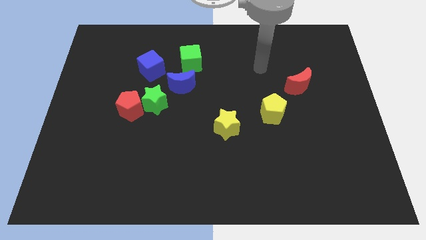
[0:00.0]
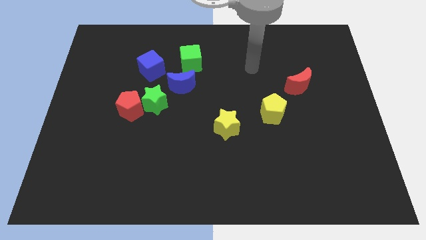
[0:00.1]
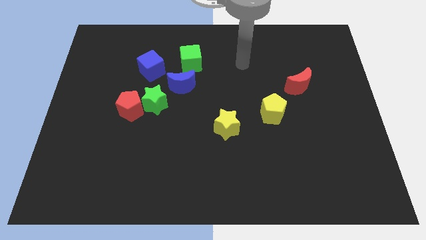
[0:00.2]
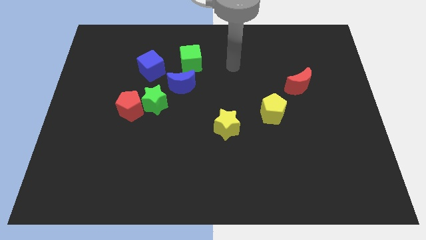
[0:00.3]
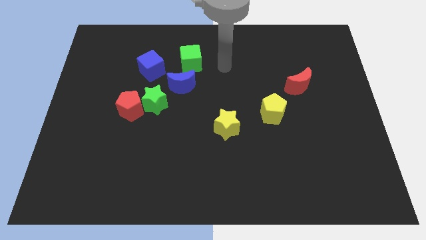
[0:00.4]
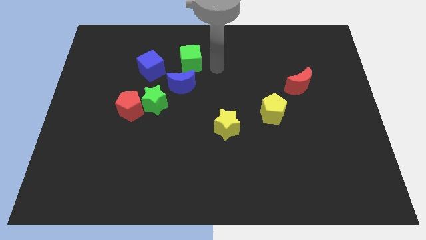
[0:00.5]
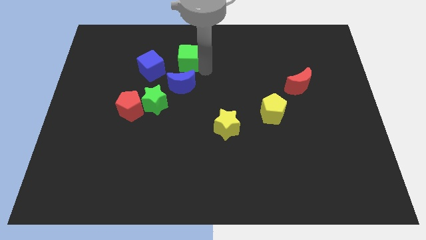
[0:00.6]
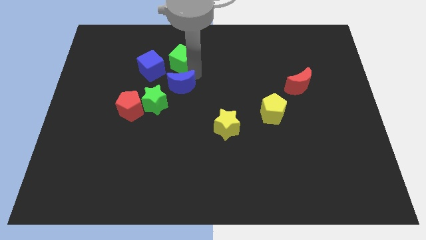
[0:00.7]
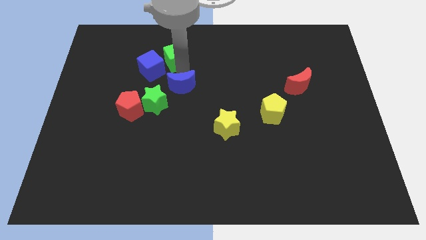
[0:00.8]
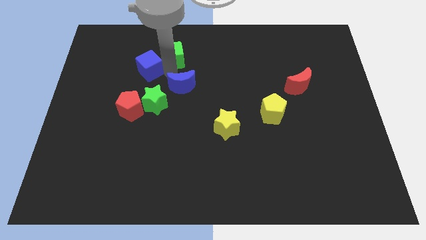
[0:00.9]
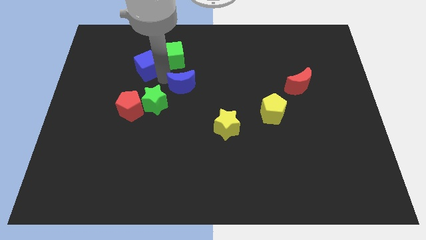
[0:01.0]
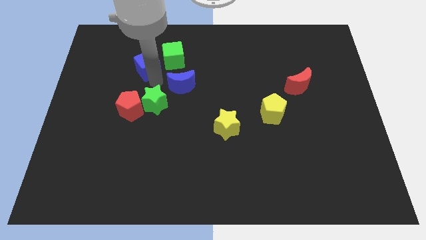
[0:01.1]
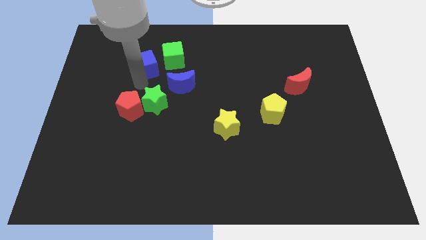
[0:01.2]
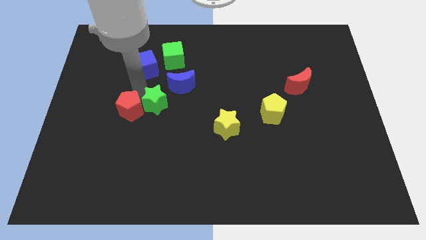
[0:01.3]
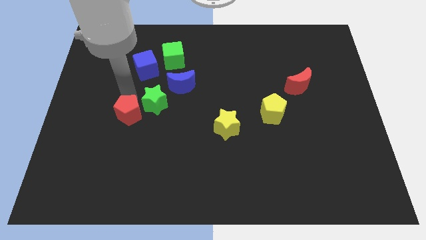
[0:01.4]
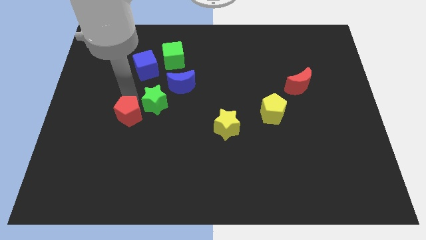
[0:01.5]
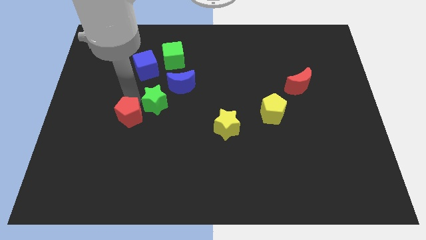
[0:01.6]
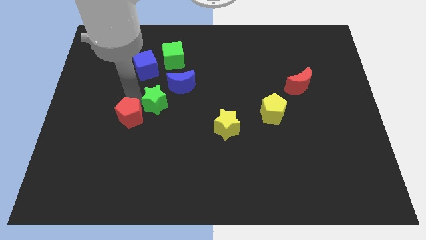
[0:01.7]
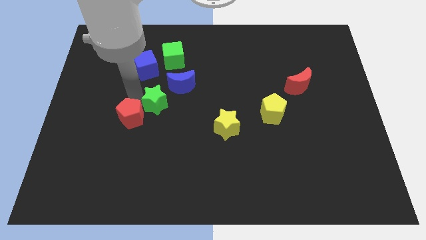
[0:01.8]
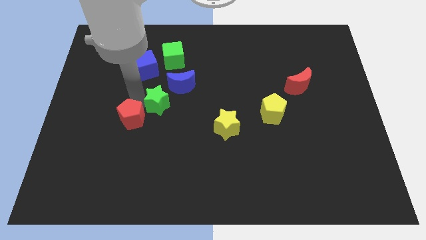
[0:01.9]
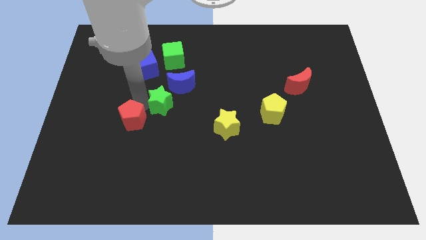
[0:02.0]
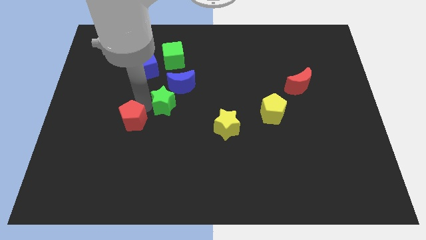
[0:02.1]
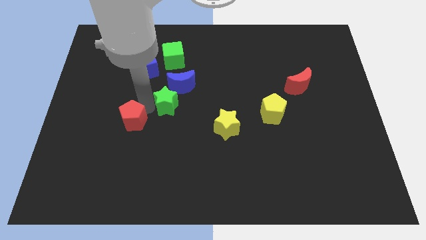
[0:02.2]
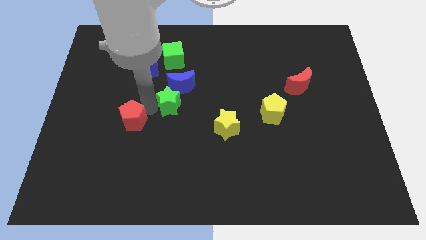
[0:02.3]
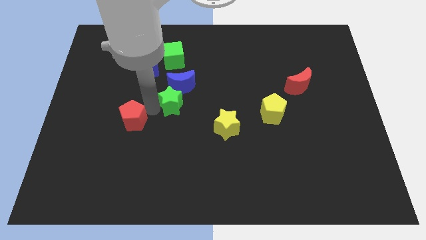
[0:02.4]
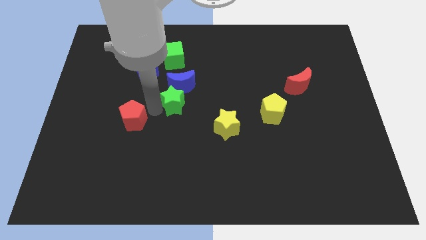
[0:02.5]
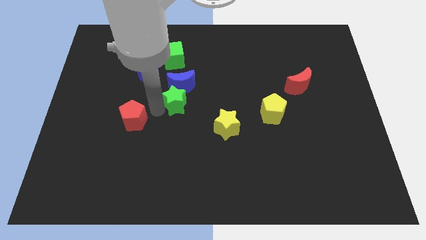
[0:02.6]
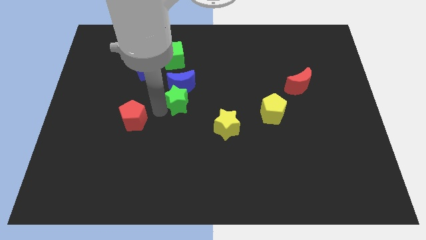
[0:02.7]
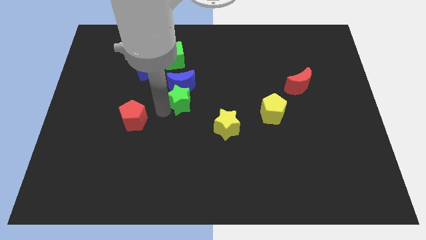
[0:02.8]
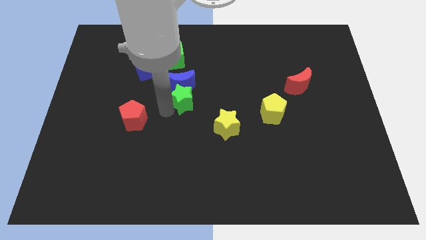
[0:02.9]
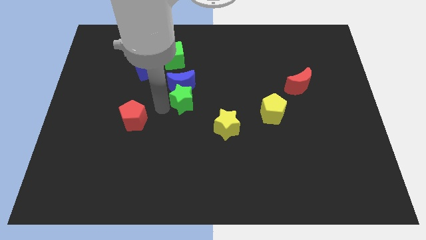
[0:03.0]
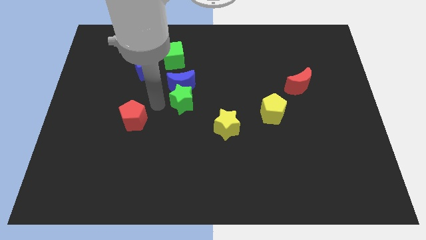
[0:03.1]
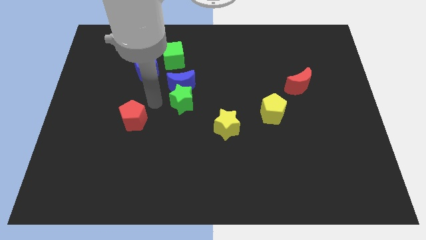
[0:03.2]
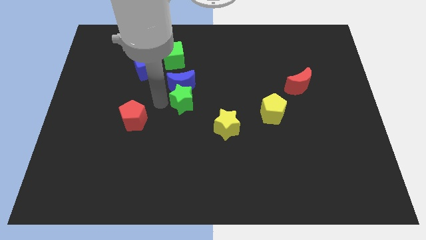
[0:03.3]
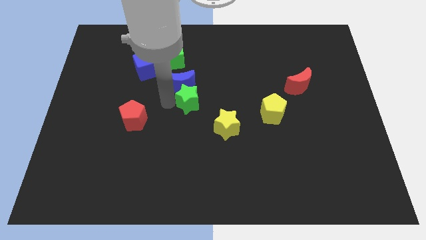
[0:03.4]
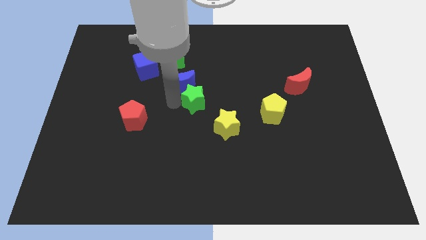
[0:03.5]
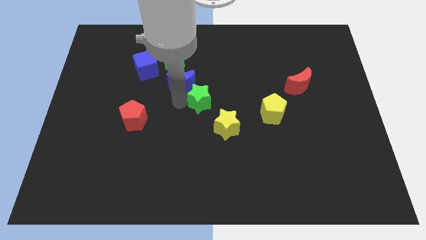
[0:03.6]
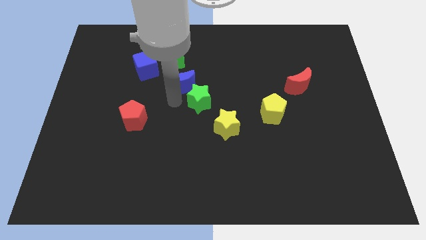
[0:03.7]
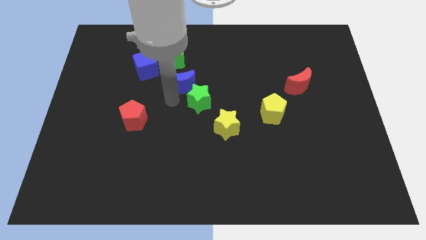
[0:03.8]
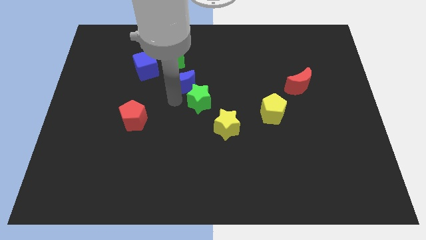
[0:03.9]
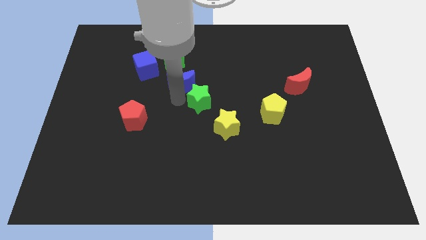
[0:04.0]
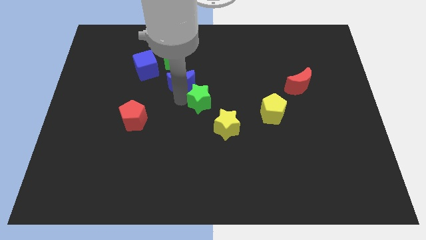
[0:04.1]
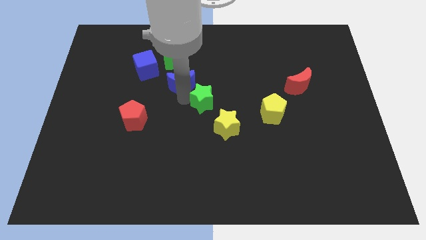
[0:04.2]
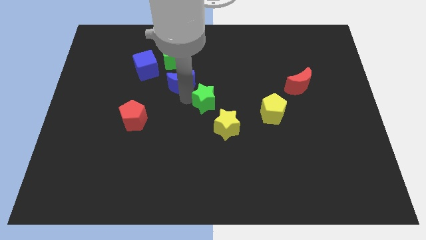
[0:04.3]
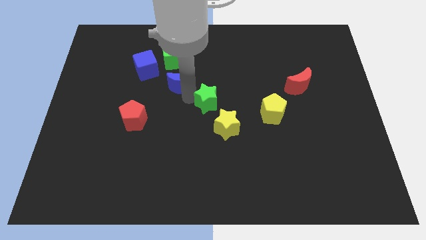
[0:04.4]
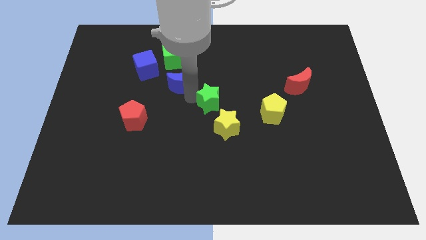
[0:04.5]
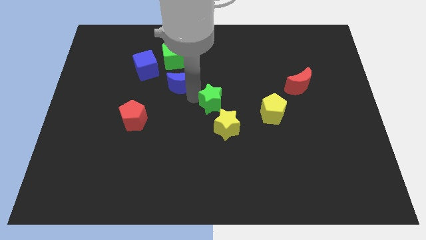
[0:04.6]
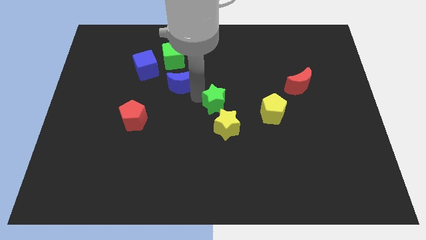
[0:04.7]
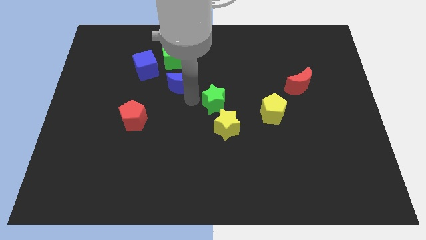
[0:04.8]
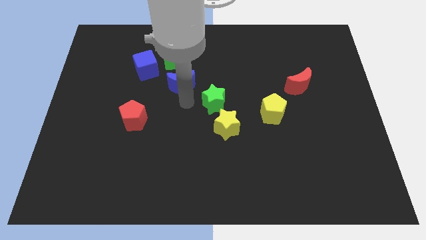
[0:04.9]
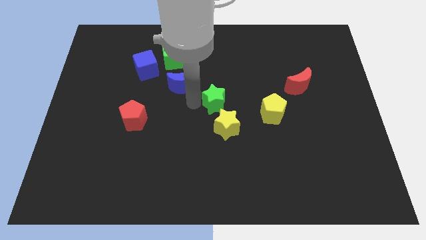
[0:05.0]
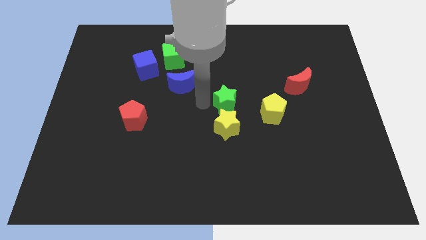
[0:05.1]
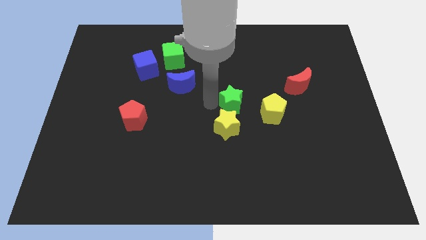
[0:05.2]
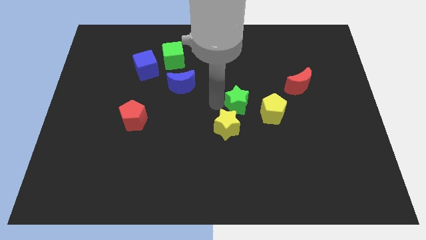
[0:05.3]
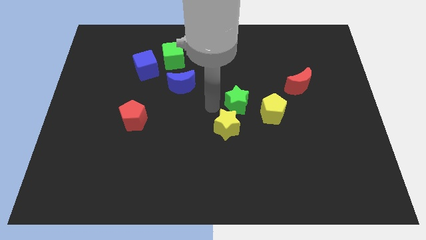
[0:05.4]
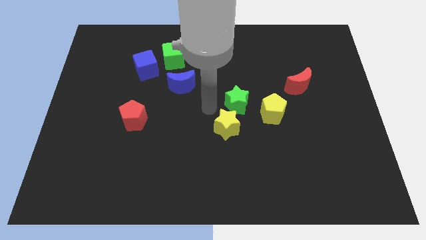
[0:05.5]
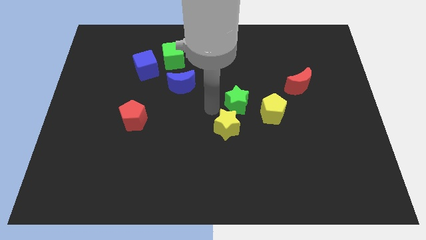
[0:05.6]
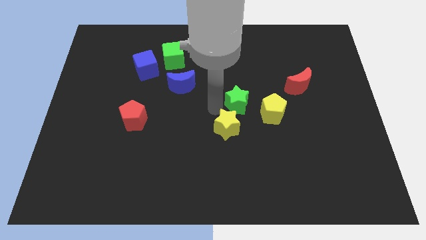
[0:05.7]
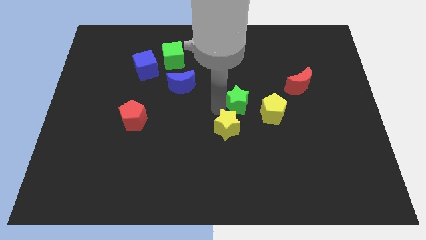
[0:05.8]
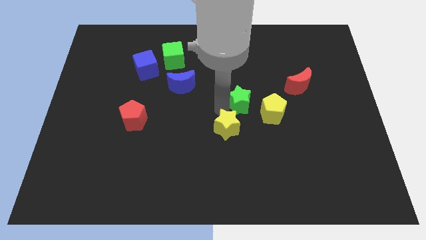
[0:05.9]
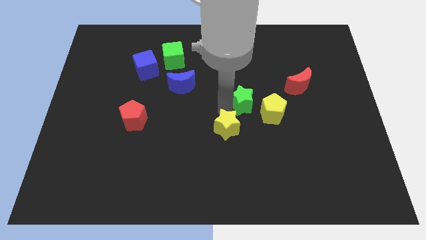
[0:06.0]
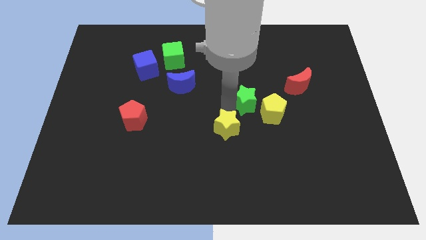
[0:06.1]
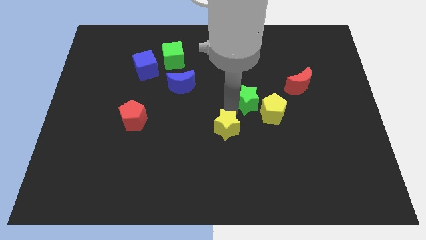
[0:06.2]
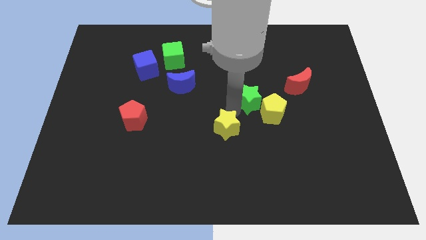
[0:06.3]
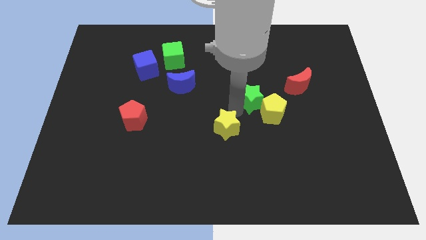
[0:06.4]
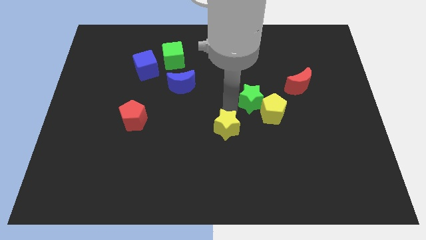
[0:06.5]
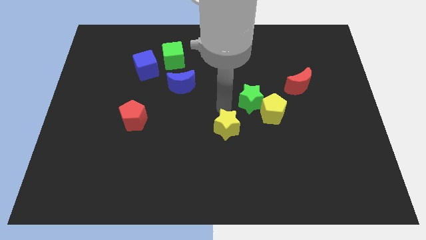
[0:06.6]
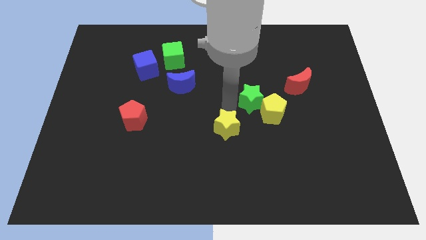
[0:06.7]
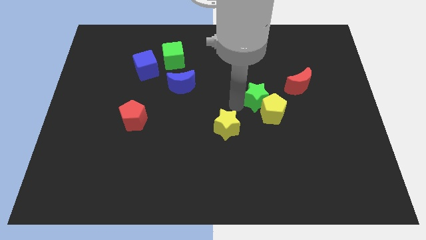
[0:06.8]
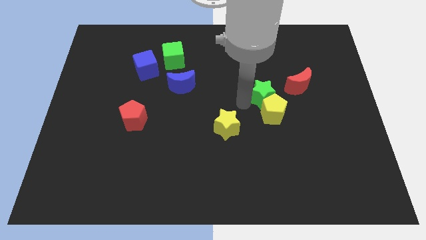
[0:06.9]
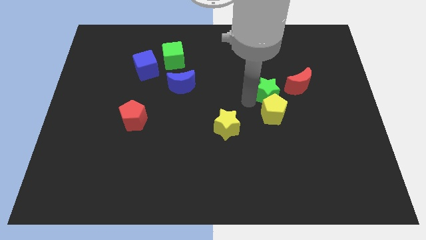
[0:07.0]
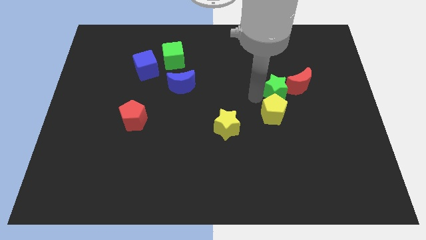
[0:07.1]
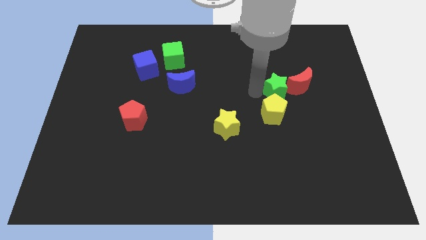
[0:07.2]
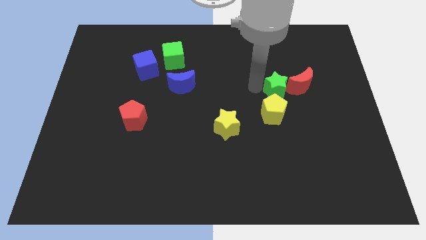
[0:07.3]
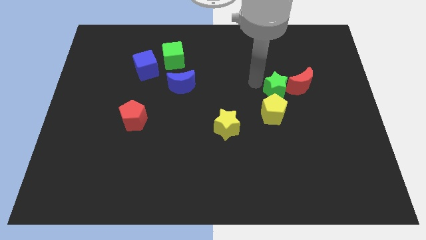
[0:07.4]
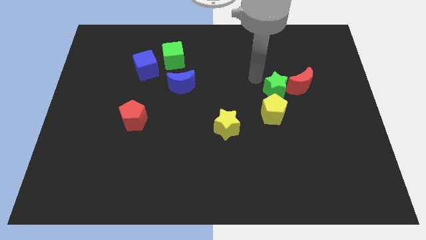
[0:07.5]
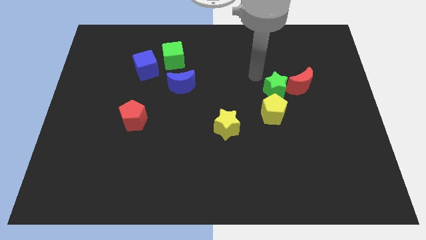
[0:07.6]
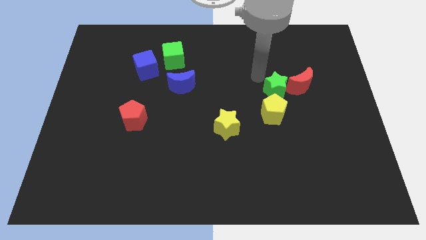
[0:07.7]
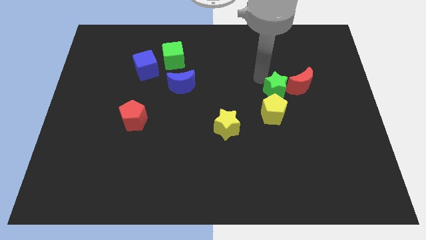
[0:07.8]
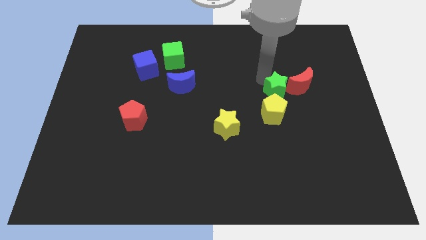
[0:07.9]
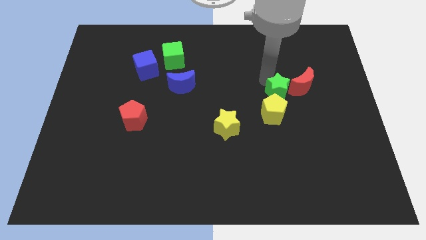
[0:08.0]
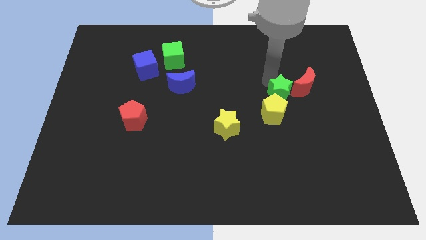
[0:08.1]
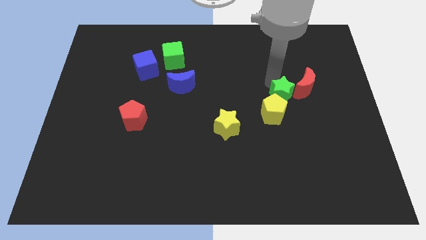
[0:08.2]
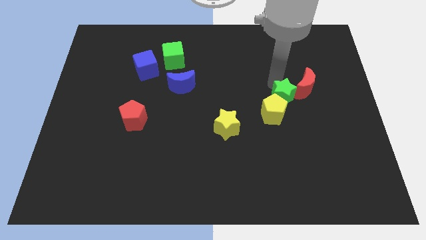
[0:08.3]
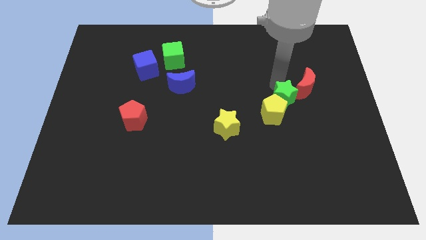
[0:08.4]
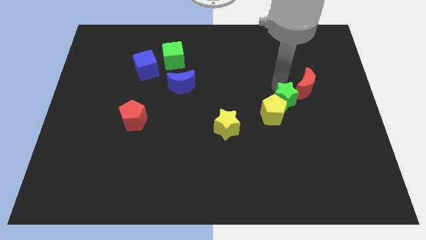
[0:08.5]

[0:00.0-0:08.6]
push the green star to the right of the yellow pentagon
